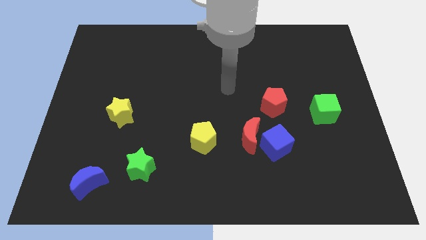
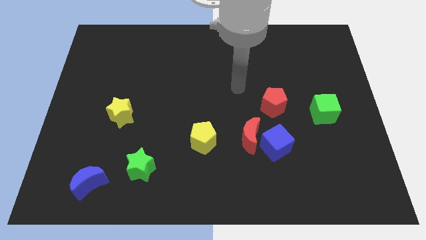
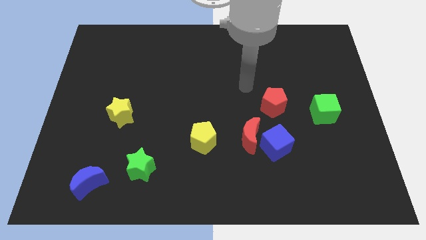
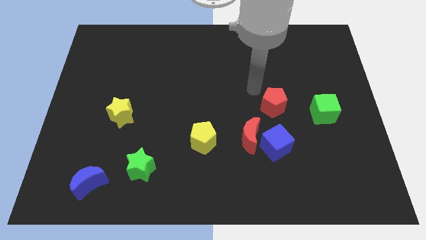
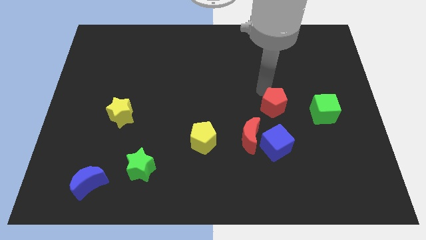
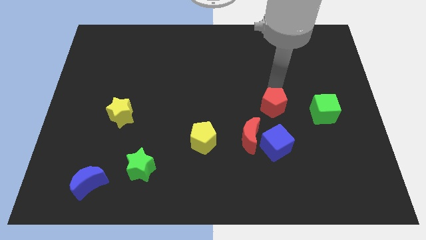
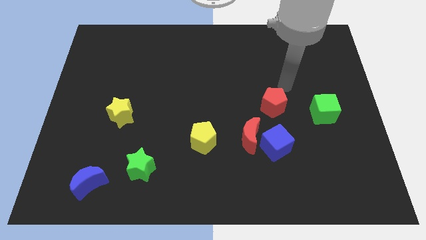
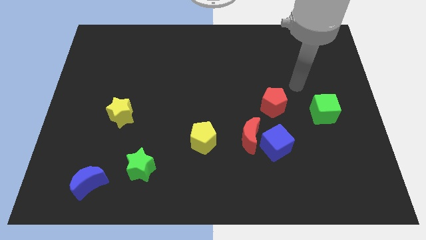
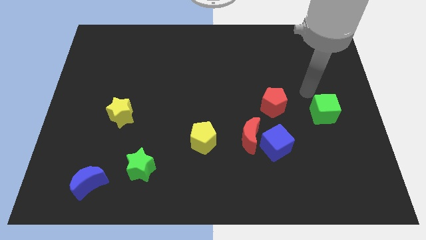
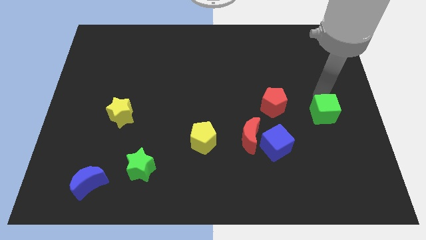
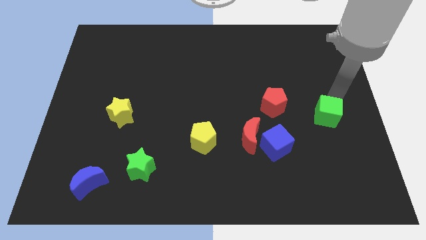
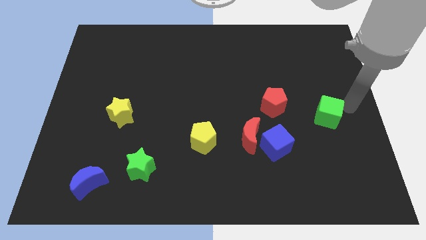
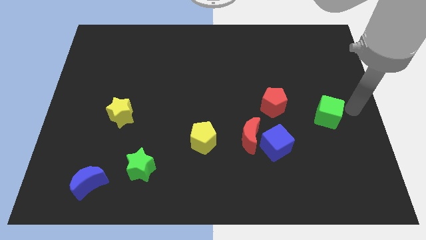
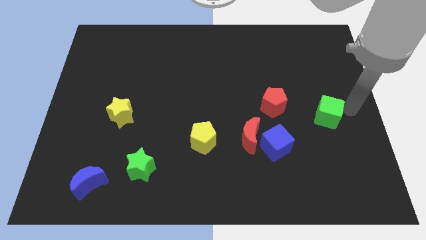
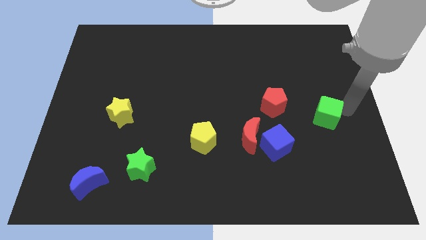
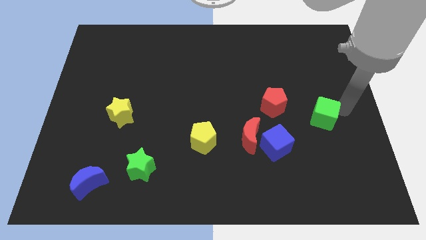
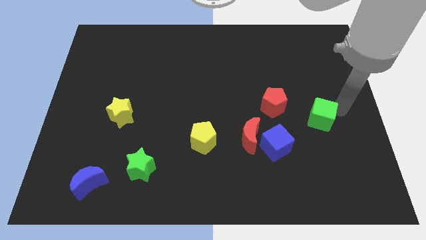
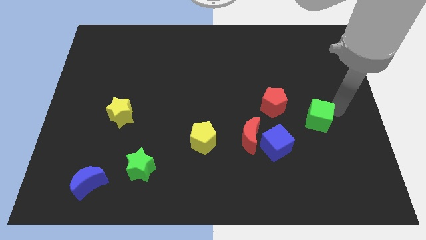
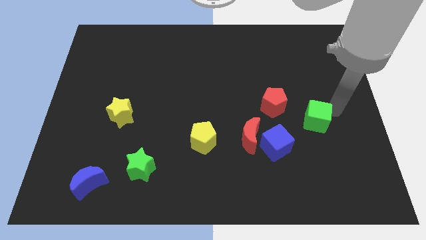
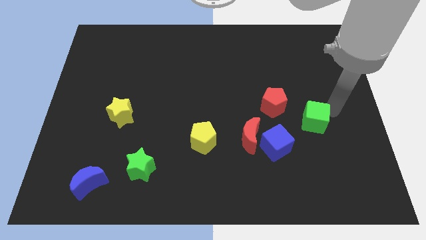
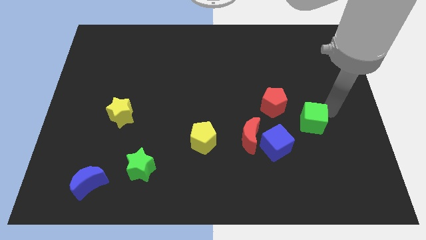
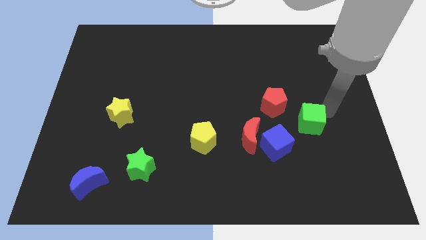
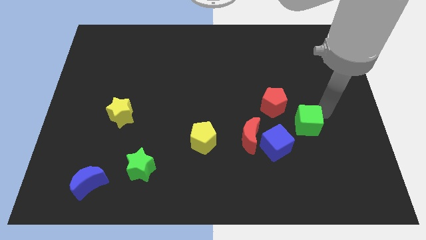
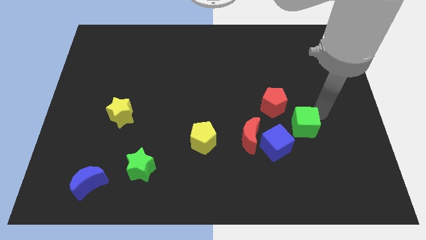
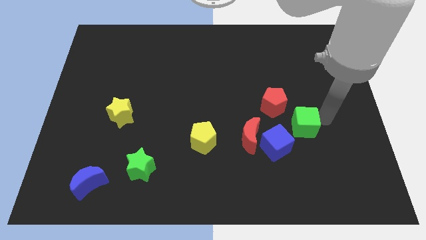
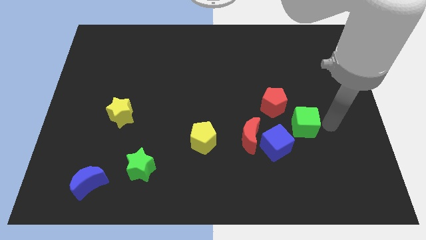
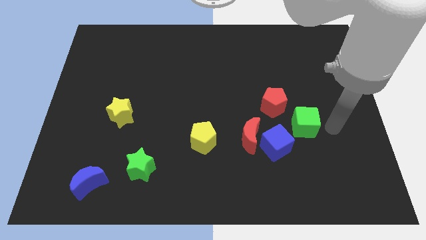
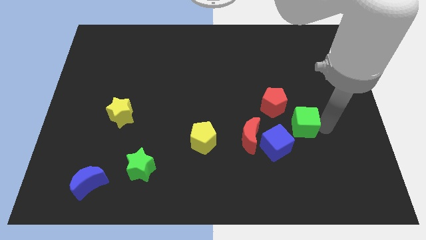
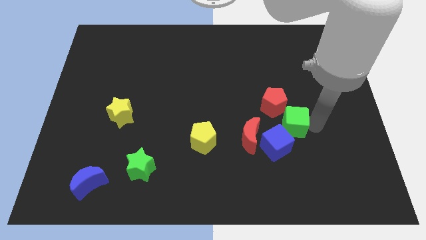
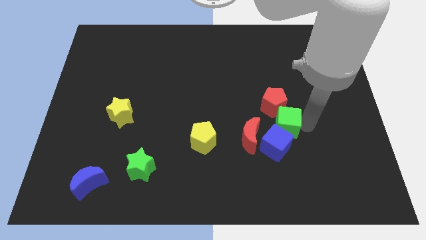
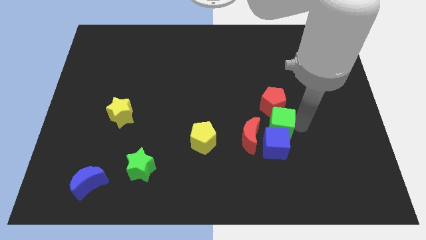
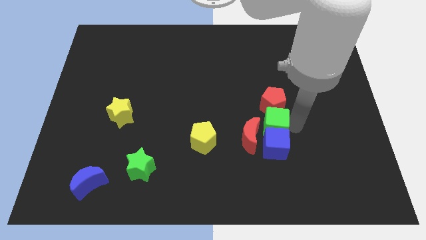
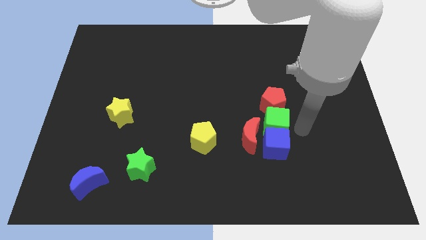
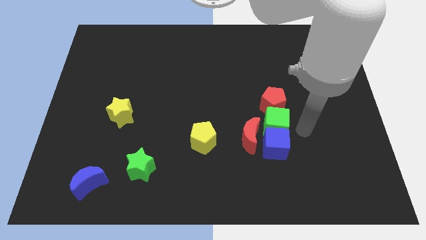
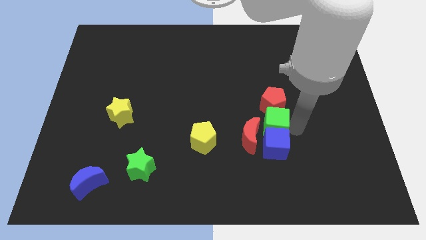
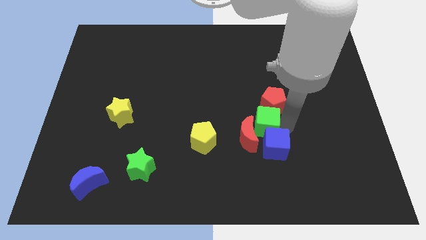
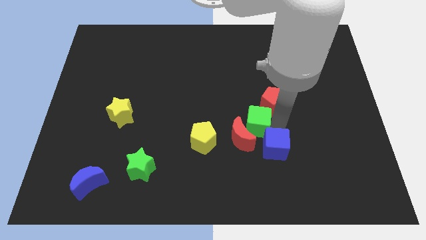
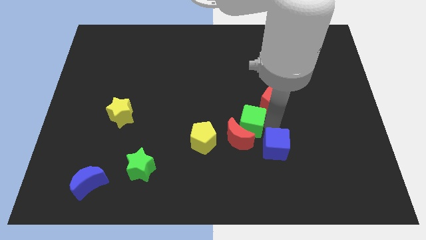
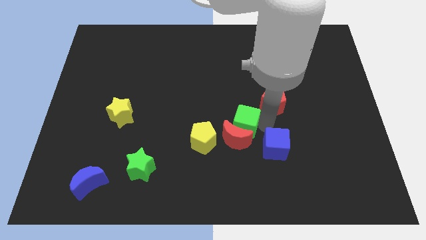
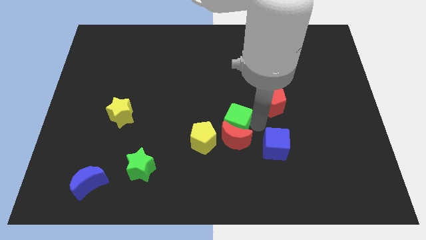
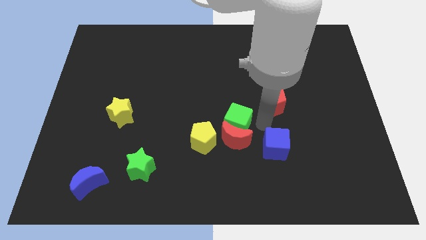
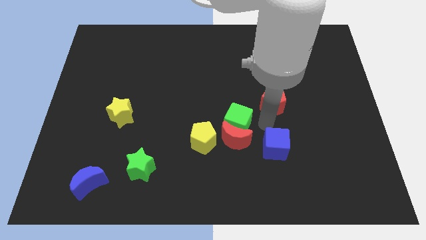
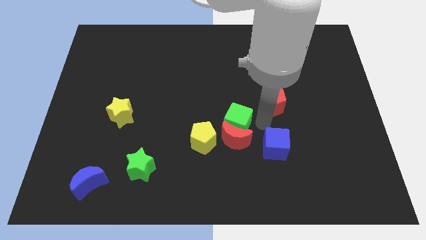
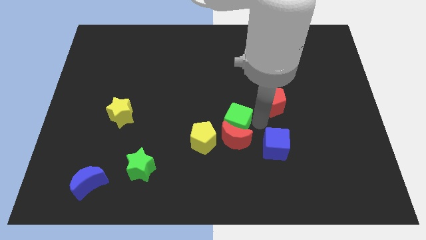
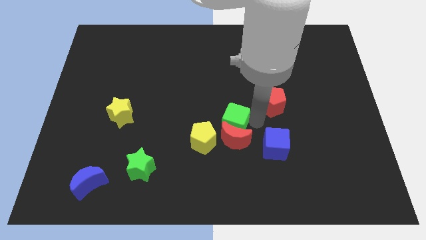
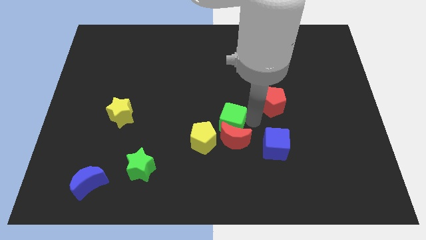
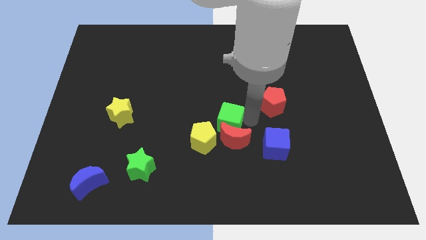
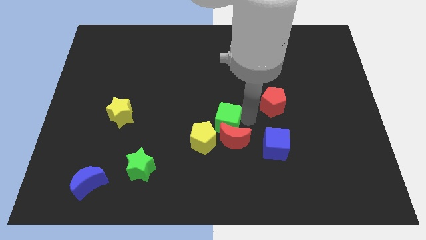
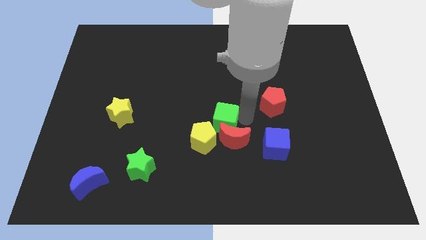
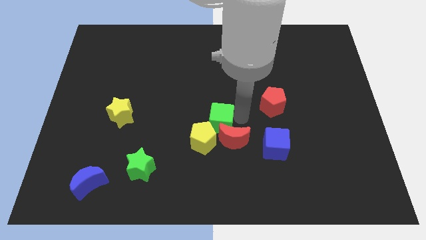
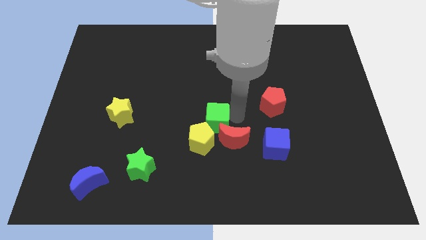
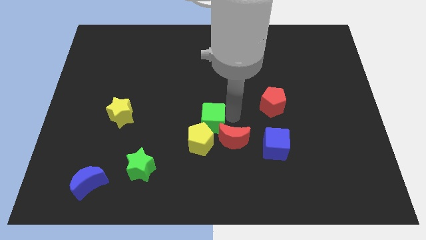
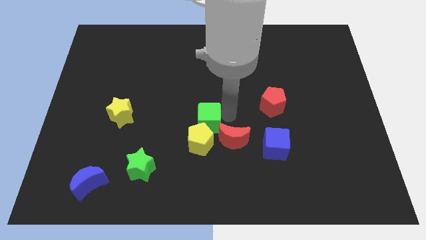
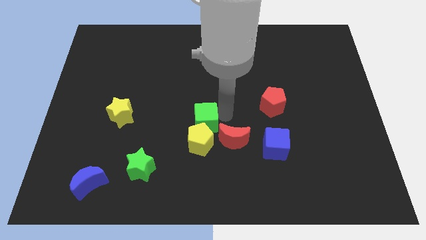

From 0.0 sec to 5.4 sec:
put the green cube to the top left side of the yellow pentagon

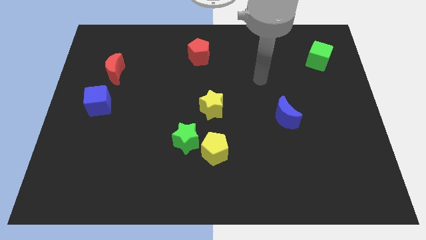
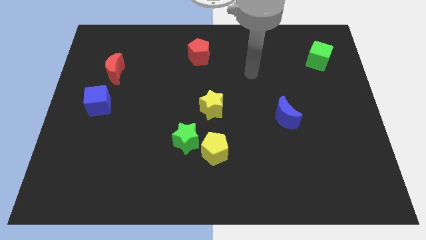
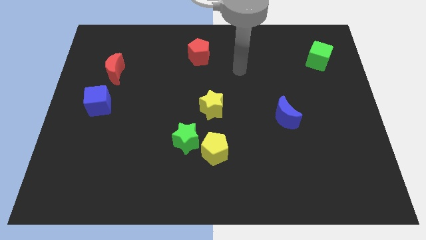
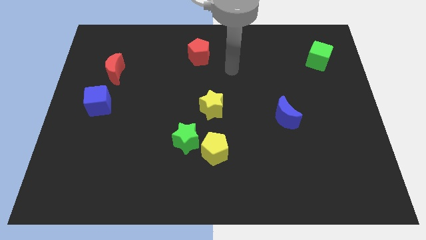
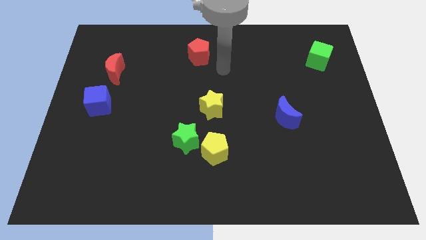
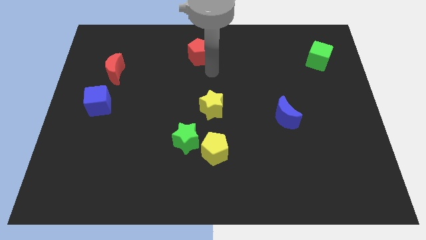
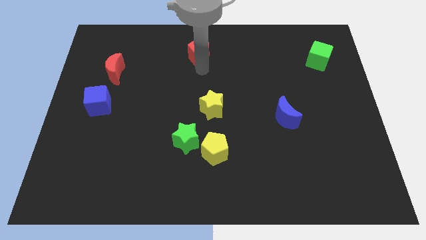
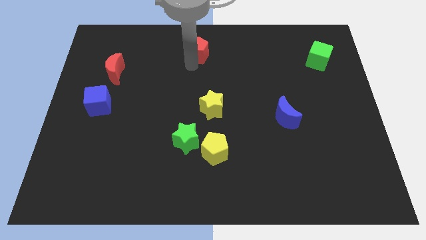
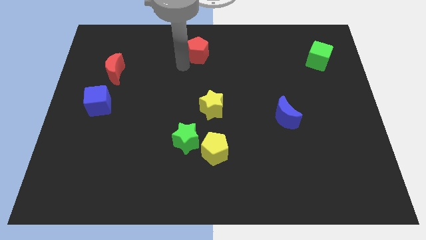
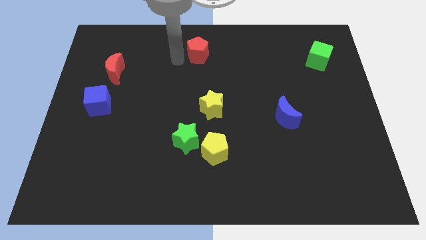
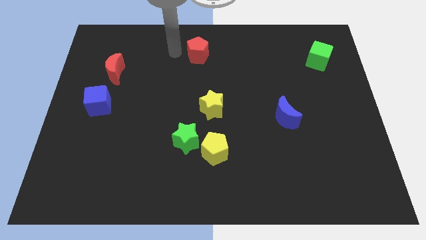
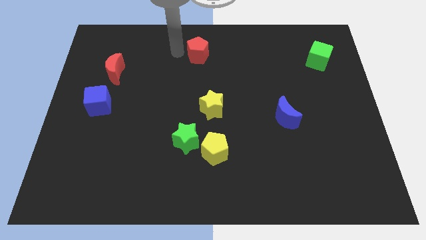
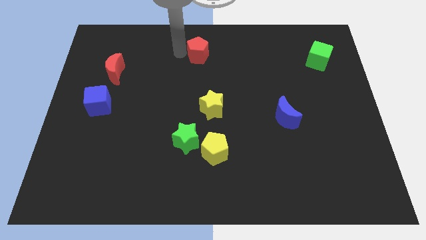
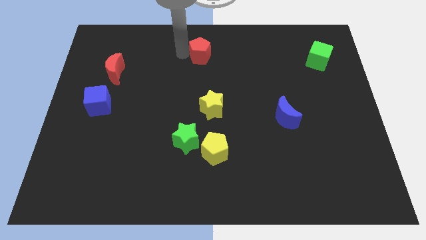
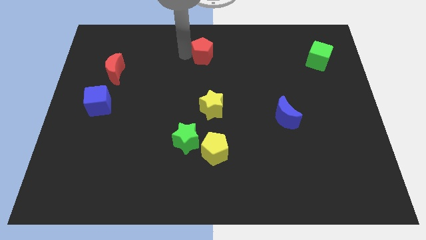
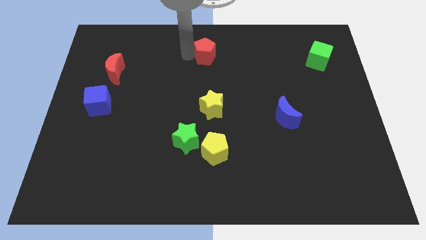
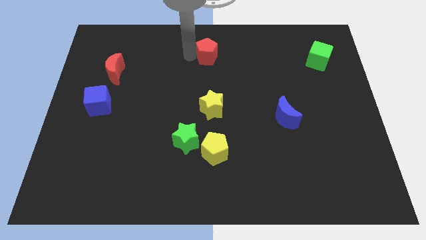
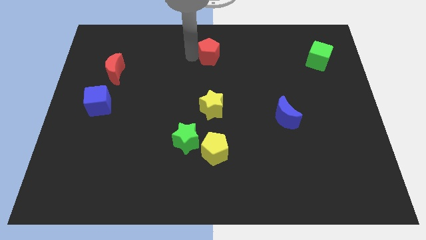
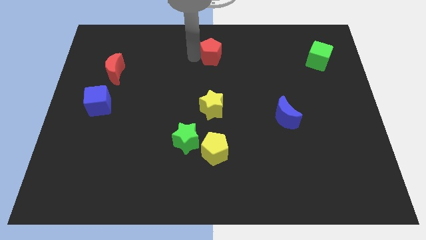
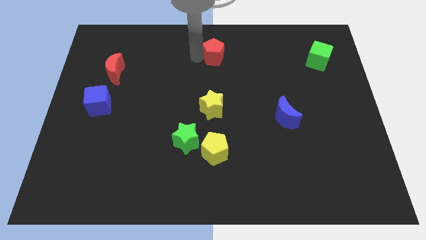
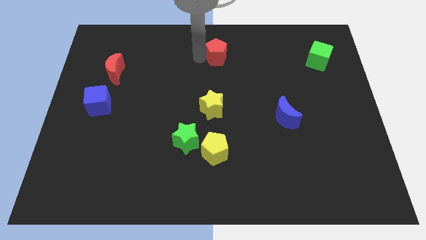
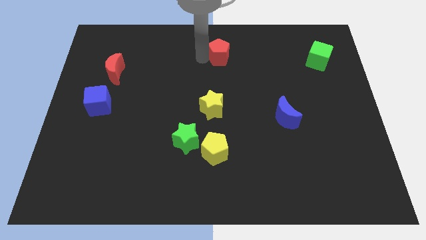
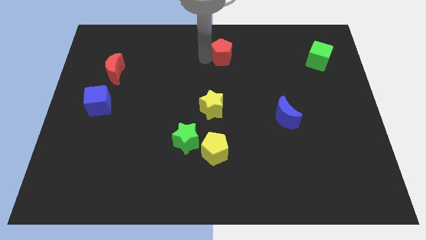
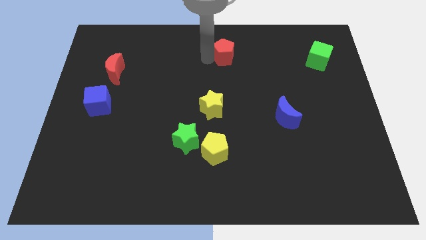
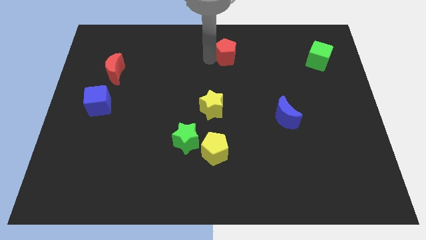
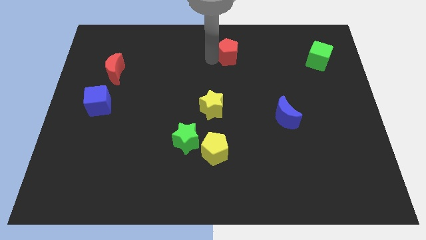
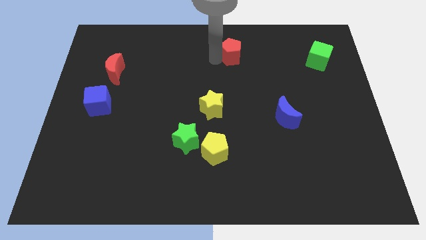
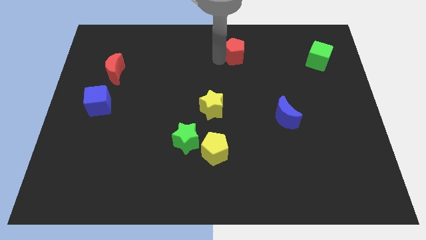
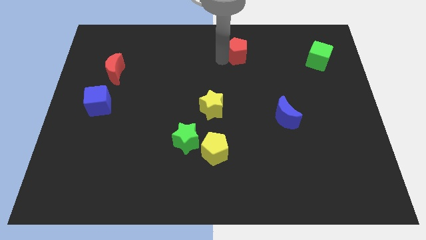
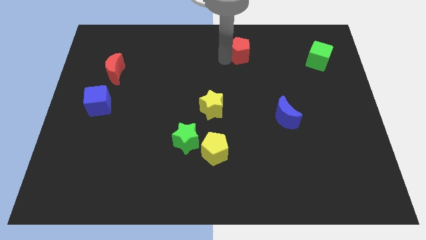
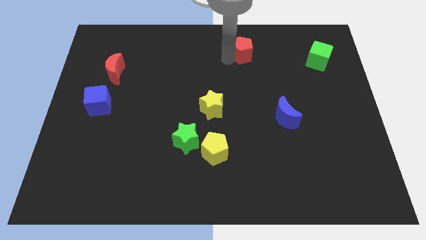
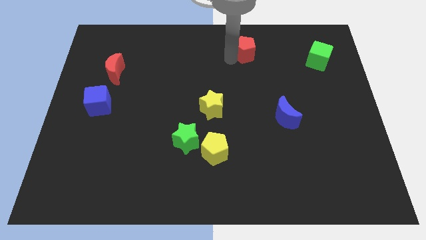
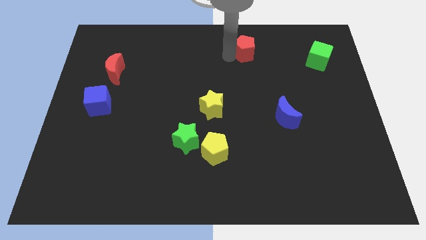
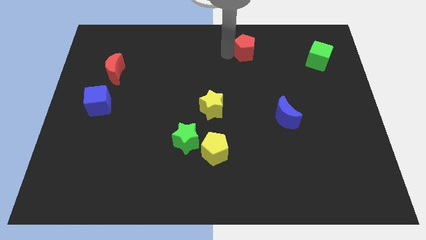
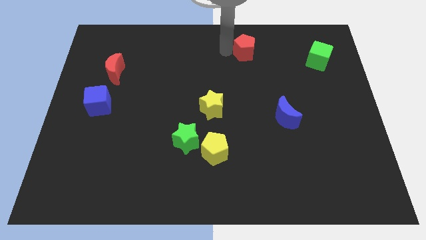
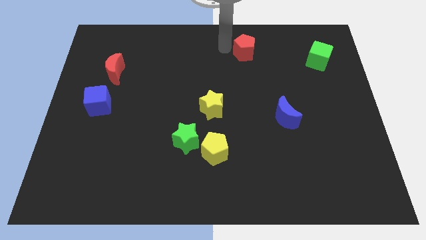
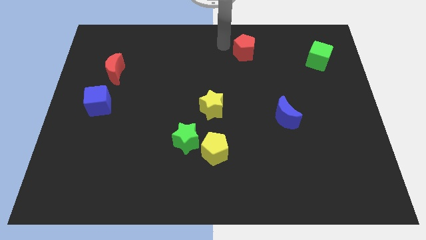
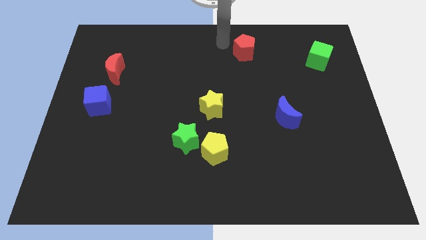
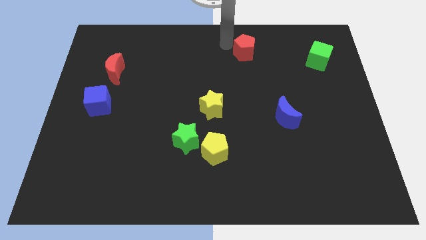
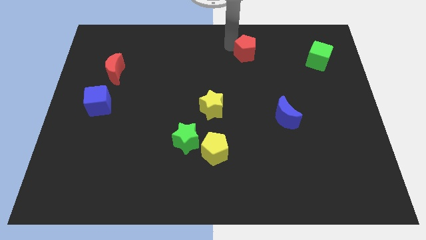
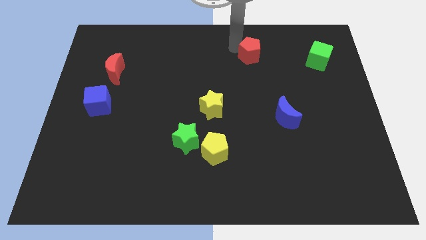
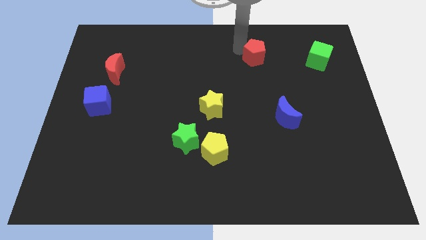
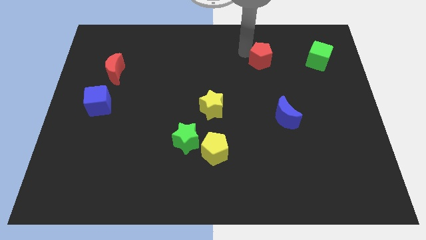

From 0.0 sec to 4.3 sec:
push the red pentagon just left of the green cube
